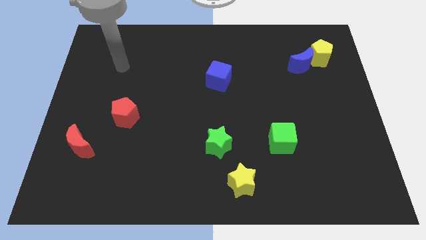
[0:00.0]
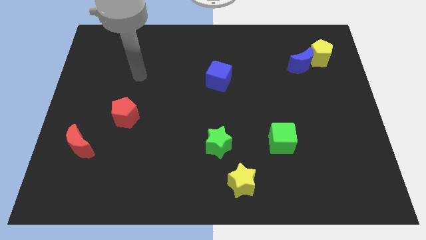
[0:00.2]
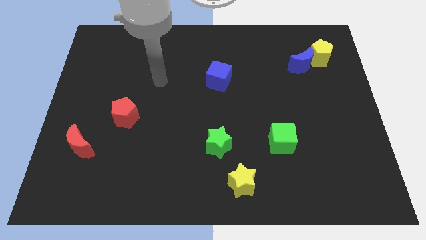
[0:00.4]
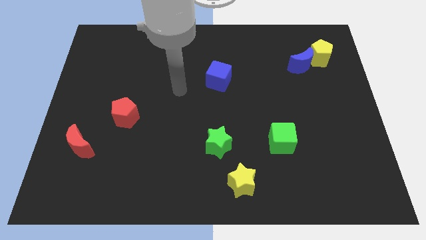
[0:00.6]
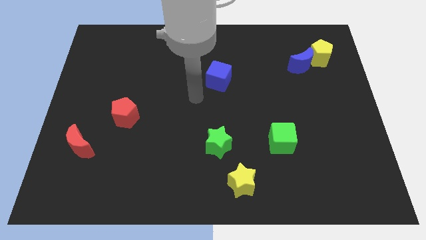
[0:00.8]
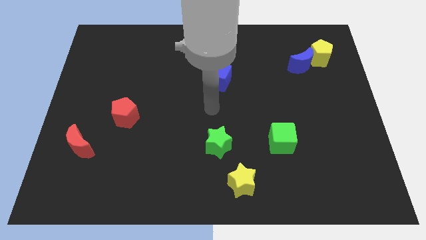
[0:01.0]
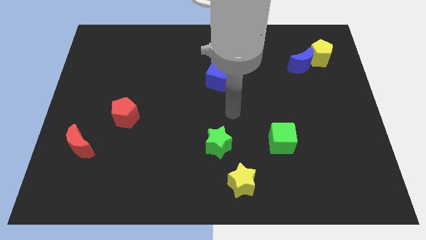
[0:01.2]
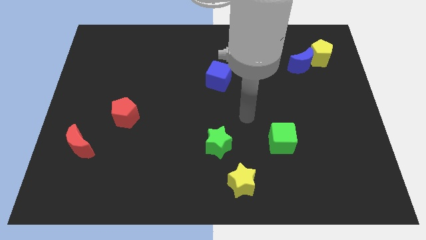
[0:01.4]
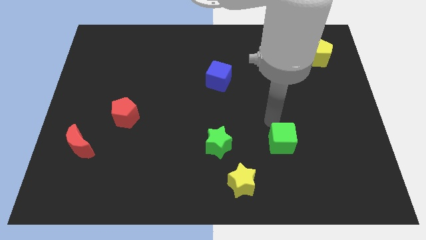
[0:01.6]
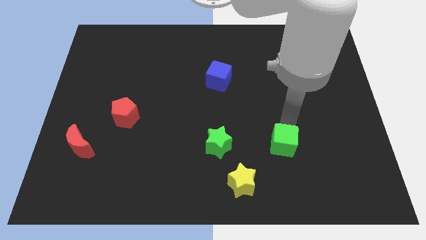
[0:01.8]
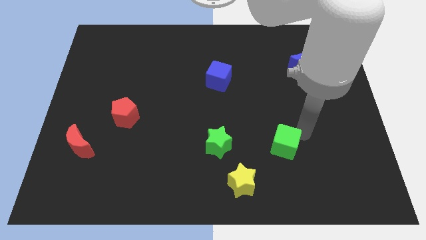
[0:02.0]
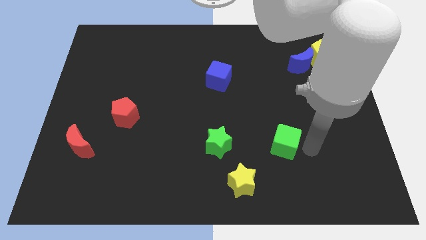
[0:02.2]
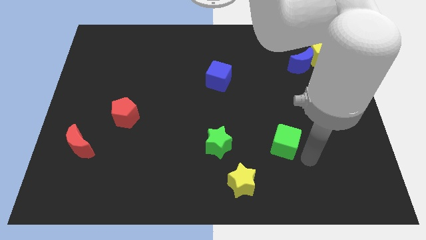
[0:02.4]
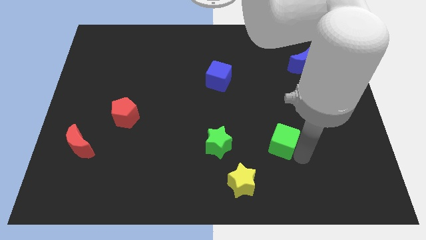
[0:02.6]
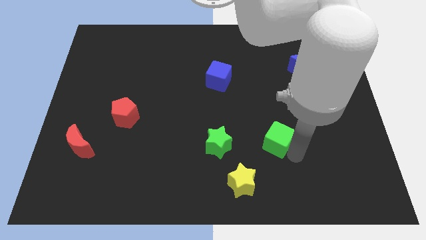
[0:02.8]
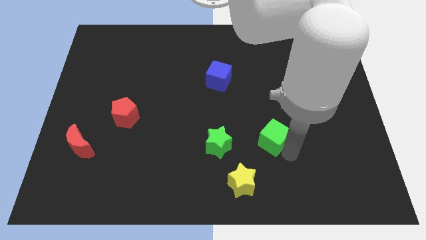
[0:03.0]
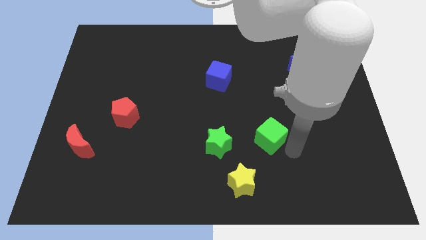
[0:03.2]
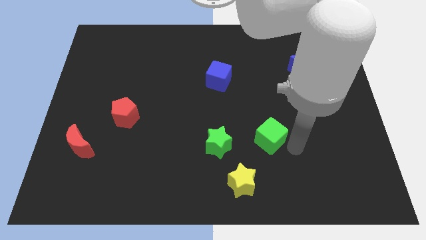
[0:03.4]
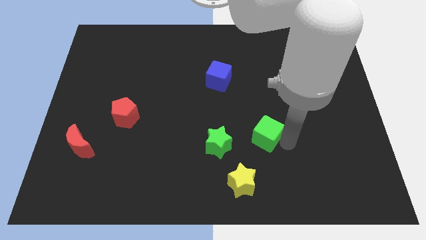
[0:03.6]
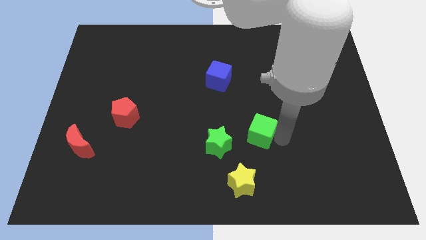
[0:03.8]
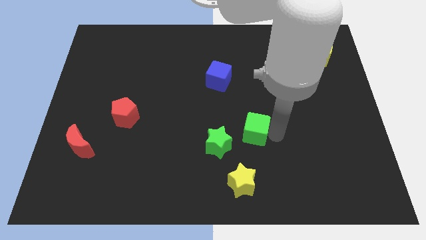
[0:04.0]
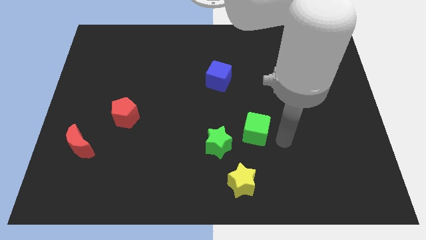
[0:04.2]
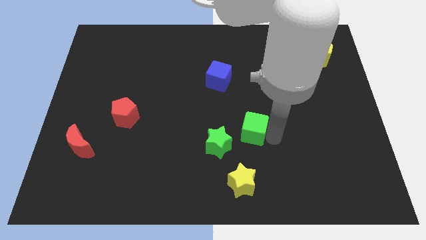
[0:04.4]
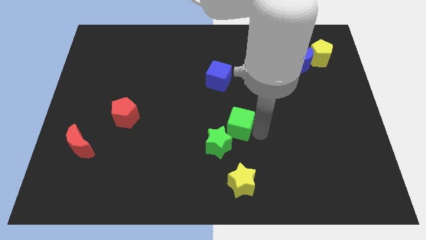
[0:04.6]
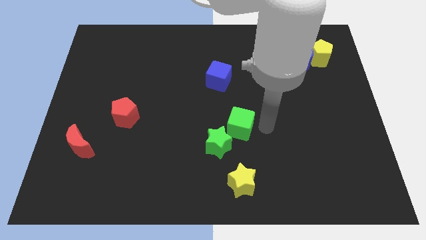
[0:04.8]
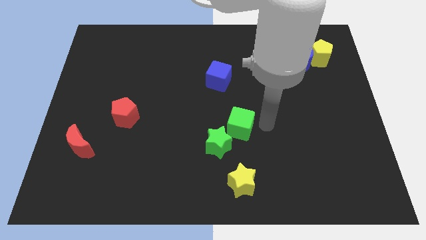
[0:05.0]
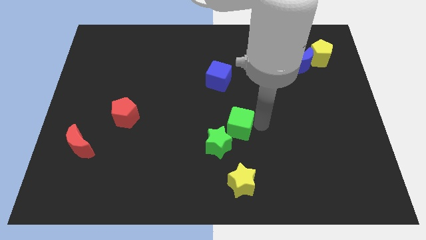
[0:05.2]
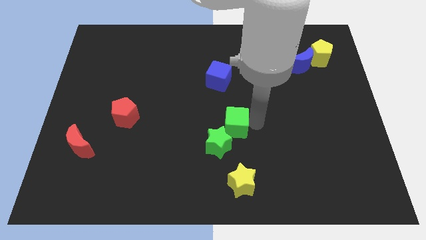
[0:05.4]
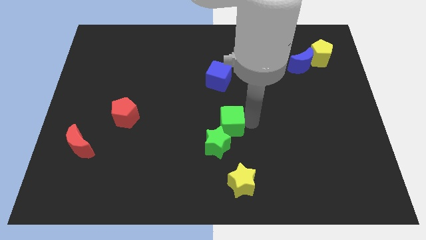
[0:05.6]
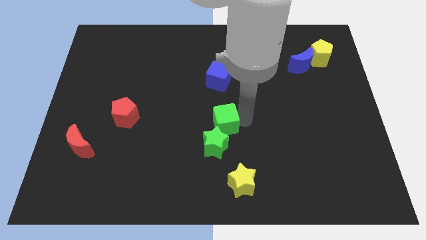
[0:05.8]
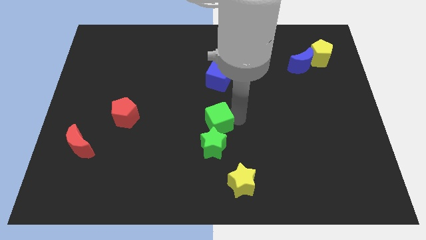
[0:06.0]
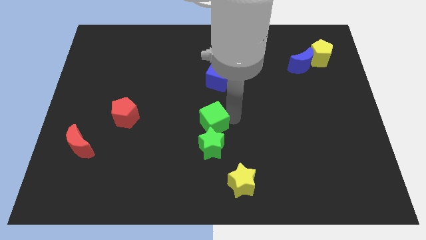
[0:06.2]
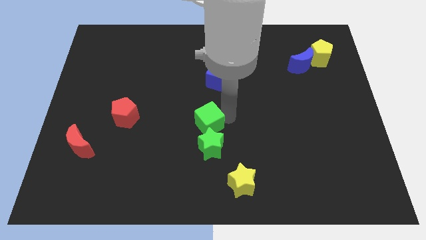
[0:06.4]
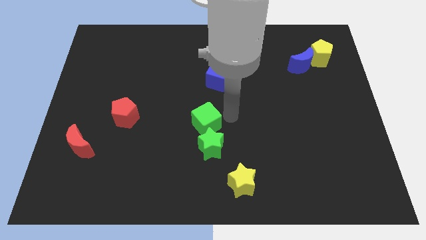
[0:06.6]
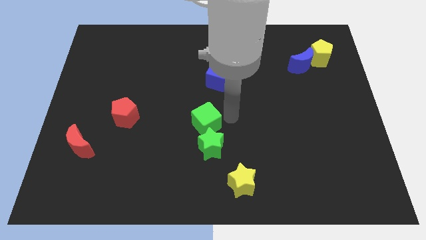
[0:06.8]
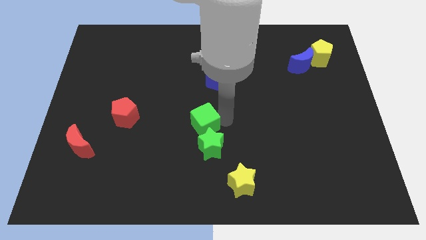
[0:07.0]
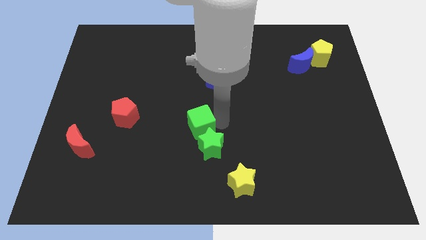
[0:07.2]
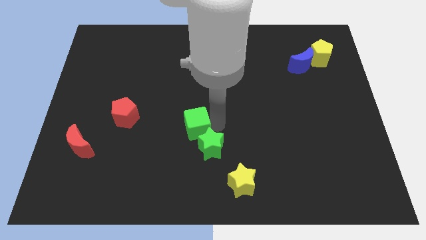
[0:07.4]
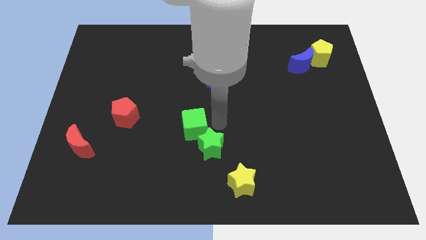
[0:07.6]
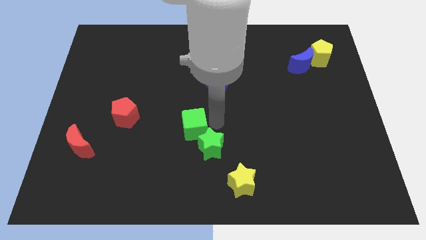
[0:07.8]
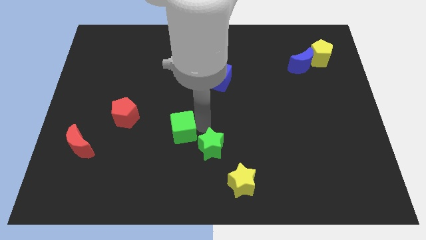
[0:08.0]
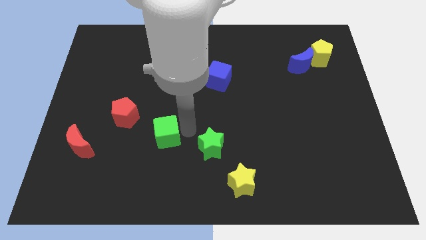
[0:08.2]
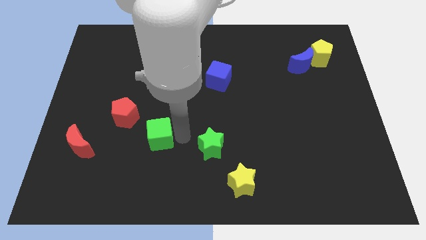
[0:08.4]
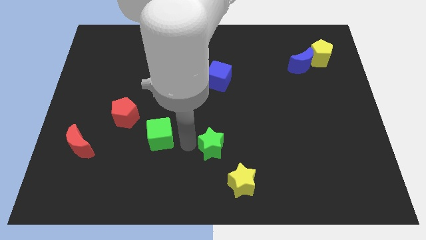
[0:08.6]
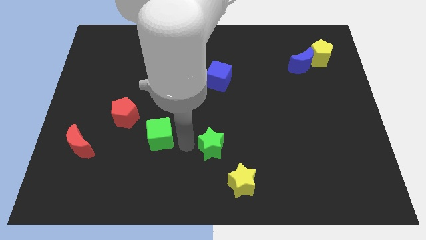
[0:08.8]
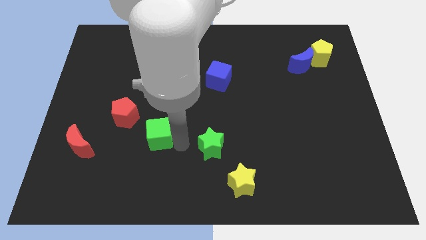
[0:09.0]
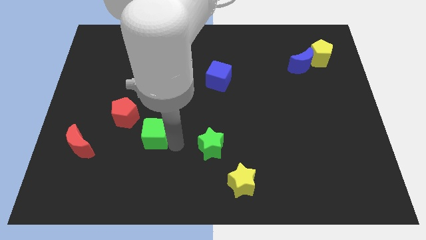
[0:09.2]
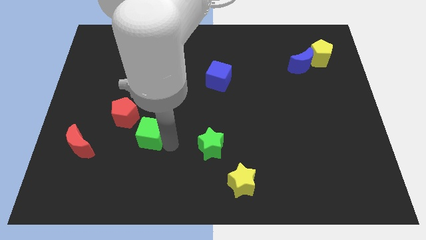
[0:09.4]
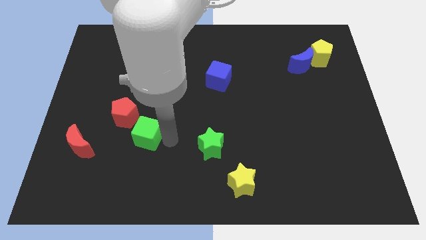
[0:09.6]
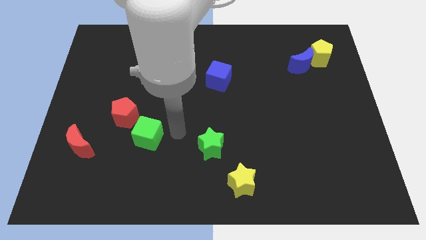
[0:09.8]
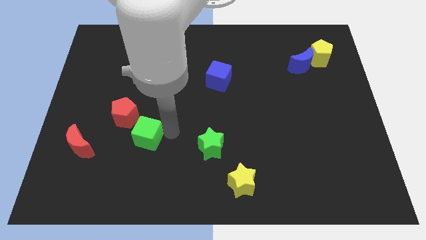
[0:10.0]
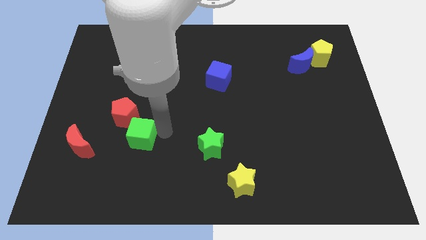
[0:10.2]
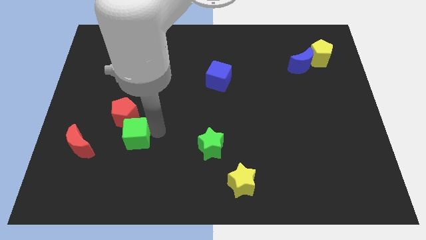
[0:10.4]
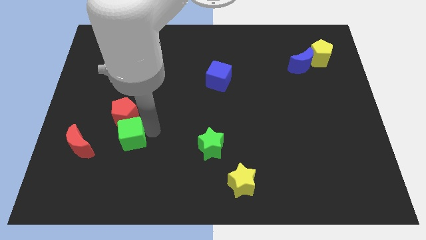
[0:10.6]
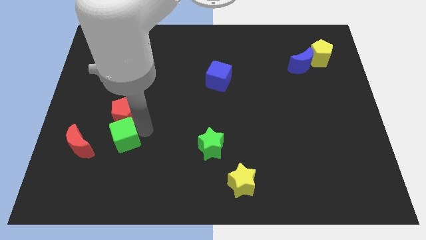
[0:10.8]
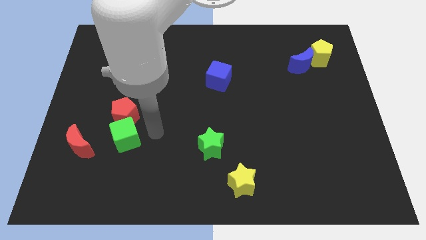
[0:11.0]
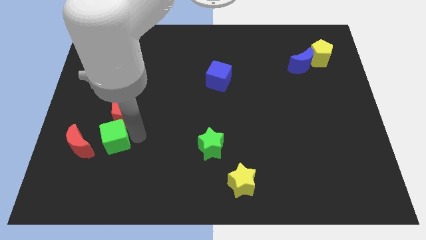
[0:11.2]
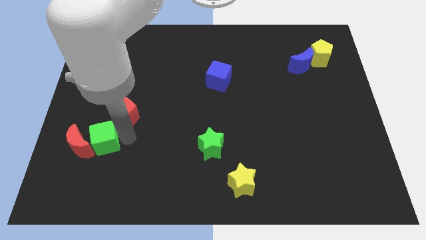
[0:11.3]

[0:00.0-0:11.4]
push the green cube next to the red moon

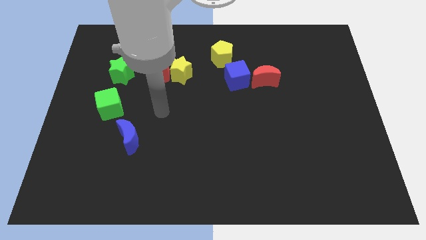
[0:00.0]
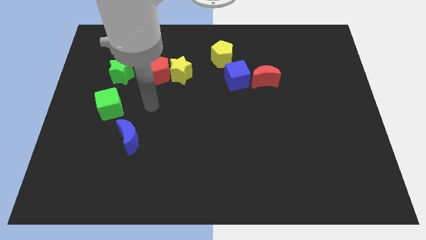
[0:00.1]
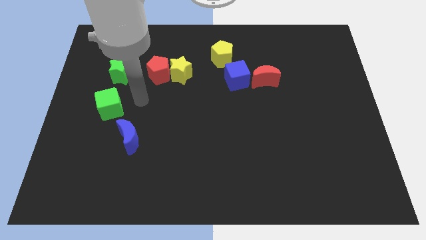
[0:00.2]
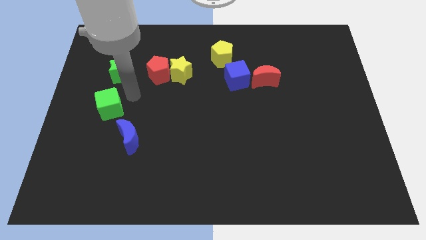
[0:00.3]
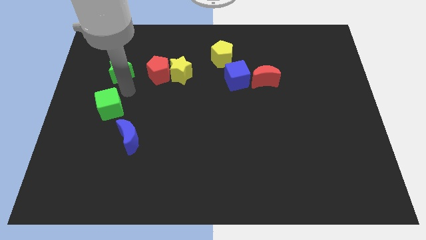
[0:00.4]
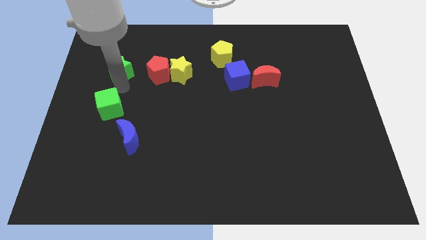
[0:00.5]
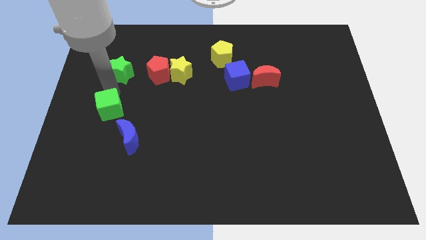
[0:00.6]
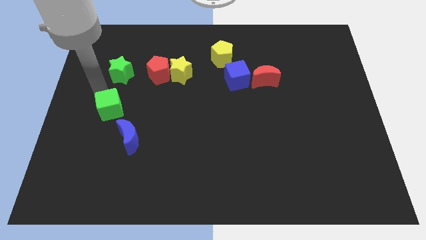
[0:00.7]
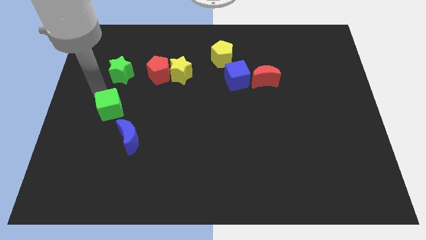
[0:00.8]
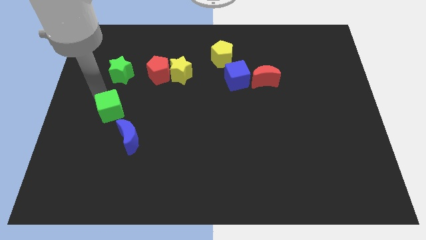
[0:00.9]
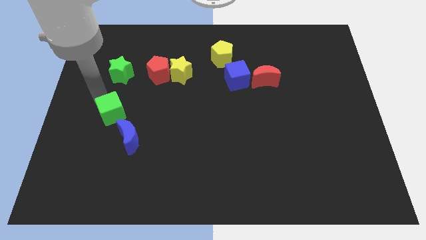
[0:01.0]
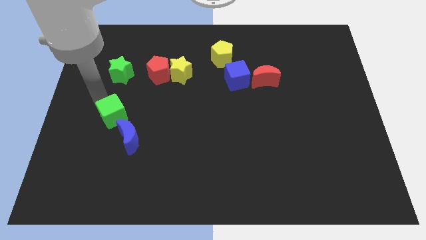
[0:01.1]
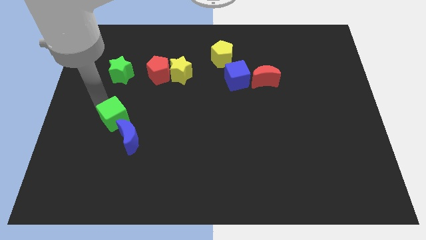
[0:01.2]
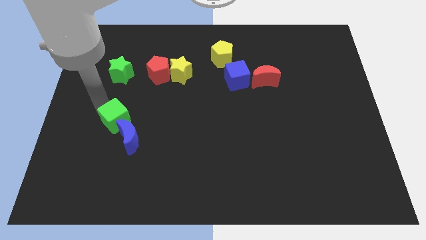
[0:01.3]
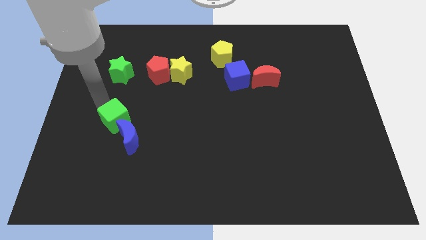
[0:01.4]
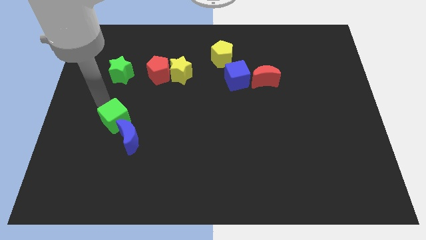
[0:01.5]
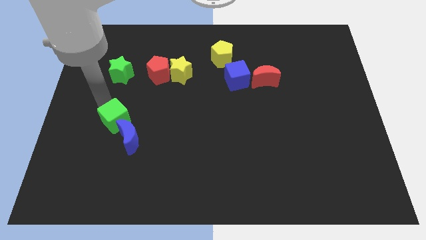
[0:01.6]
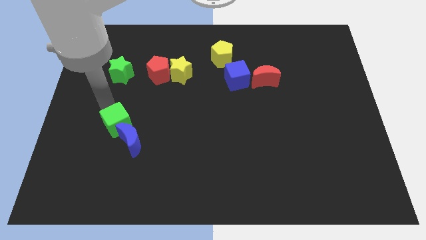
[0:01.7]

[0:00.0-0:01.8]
put the green cube next to the blue moon
